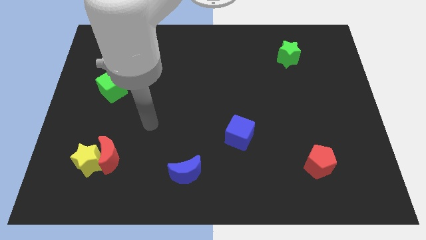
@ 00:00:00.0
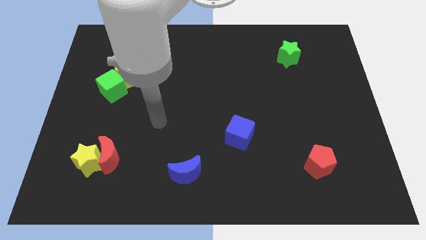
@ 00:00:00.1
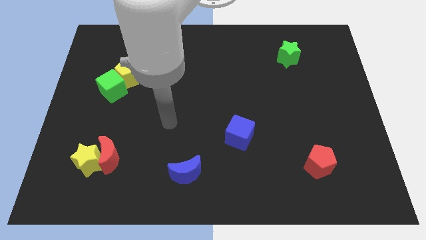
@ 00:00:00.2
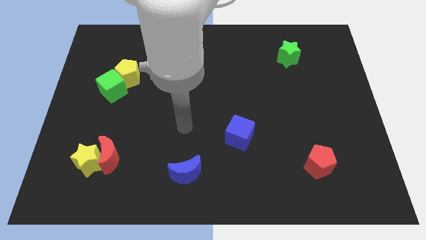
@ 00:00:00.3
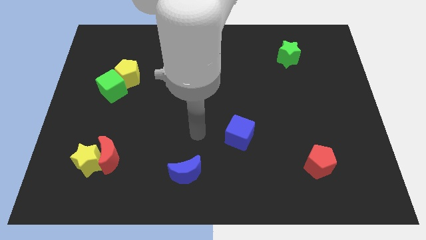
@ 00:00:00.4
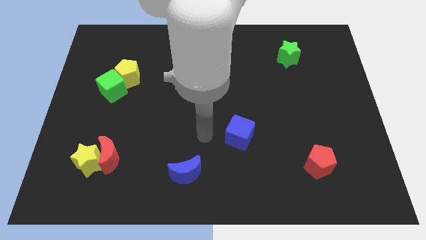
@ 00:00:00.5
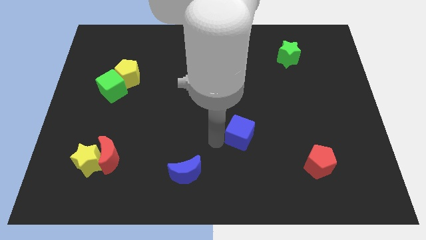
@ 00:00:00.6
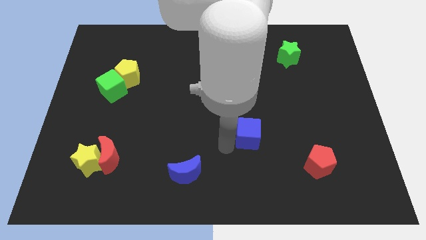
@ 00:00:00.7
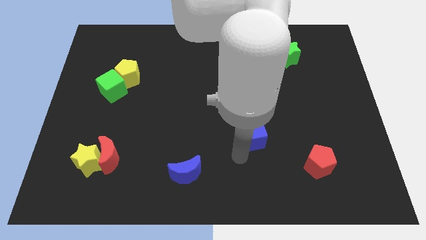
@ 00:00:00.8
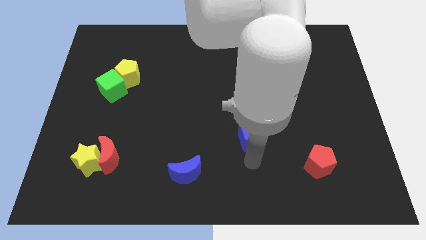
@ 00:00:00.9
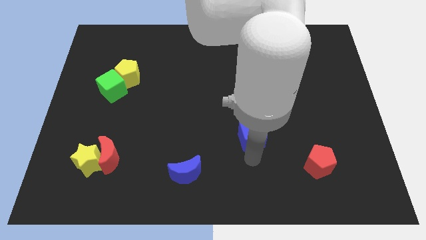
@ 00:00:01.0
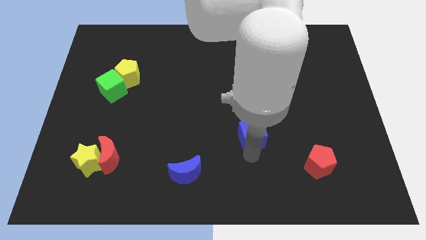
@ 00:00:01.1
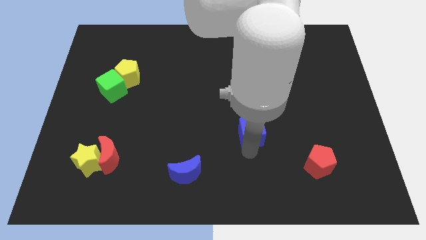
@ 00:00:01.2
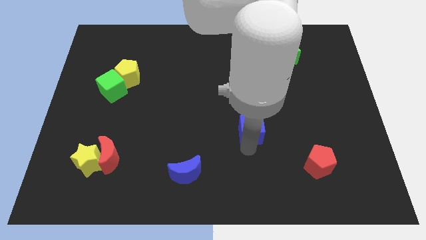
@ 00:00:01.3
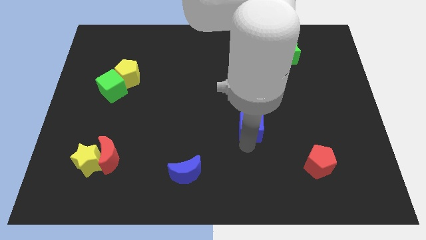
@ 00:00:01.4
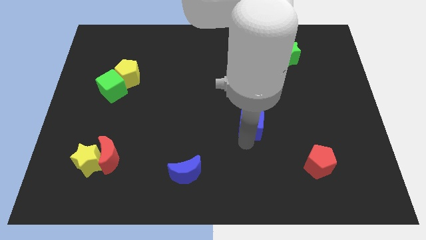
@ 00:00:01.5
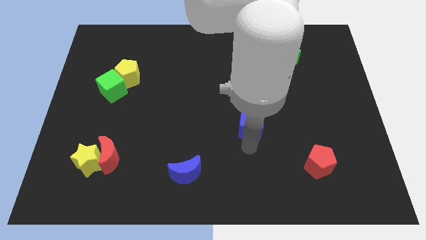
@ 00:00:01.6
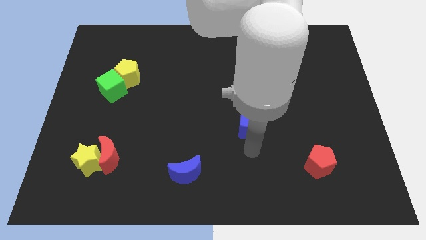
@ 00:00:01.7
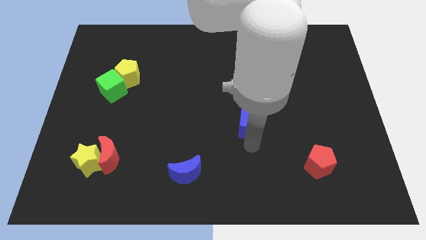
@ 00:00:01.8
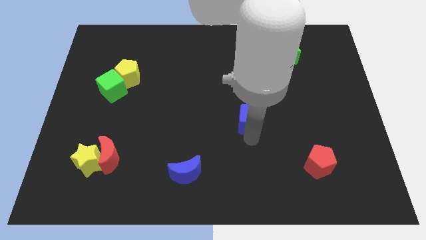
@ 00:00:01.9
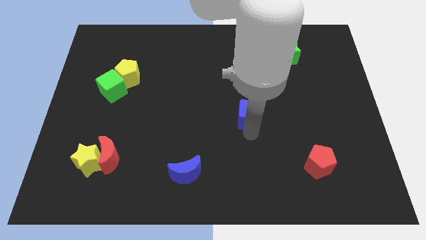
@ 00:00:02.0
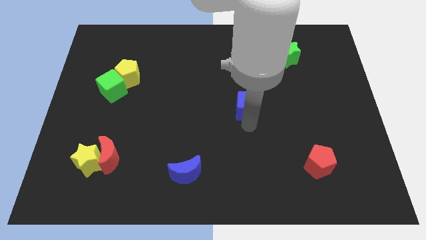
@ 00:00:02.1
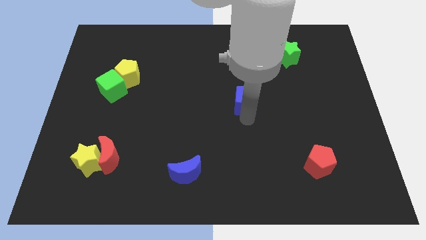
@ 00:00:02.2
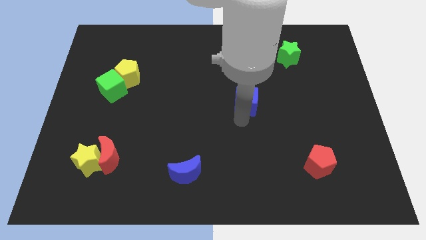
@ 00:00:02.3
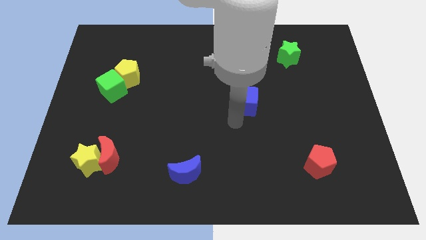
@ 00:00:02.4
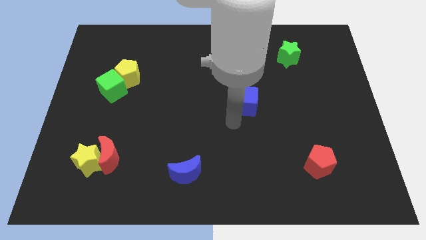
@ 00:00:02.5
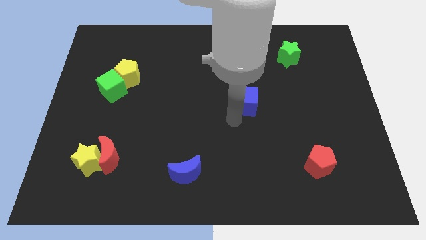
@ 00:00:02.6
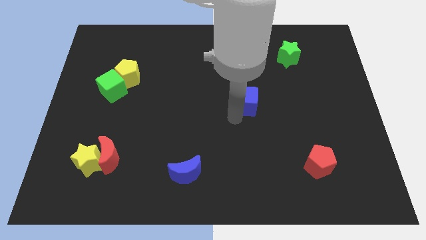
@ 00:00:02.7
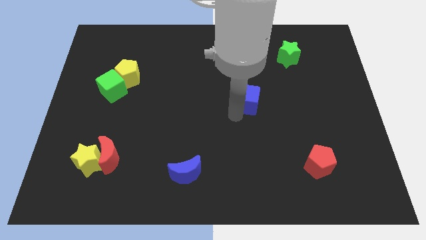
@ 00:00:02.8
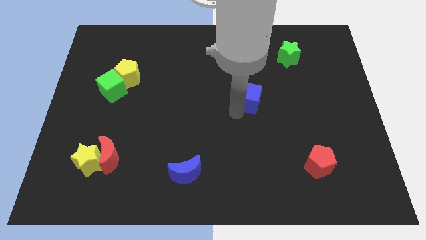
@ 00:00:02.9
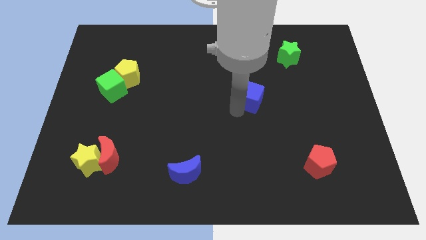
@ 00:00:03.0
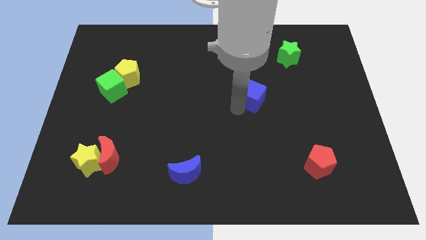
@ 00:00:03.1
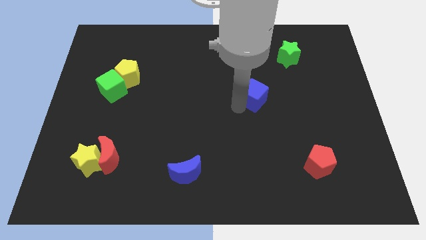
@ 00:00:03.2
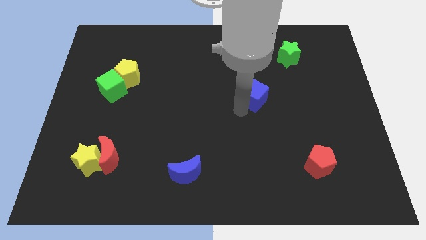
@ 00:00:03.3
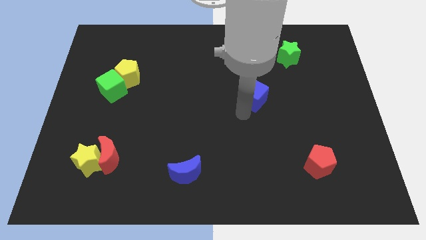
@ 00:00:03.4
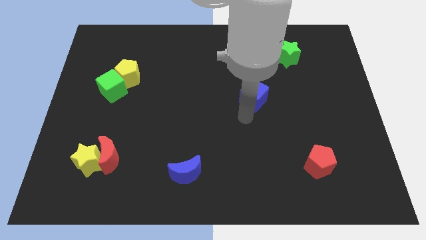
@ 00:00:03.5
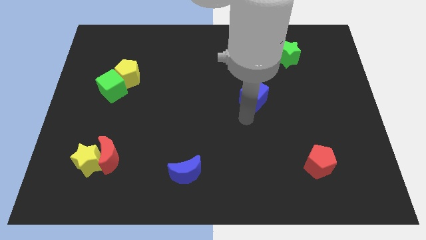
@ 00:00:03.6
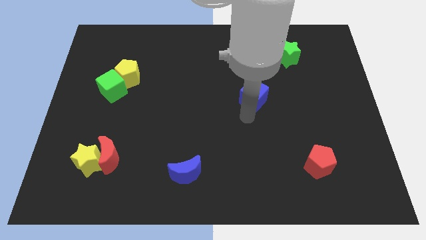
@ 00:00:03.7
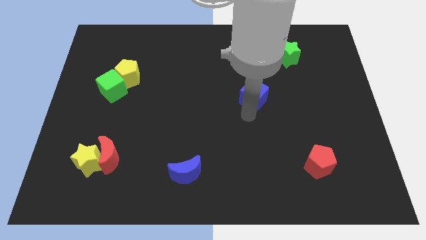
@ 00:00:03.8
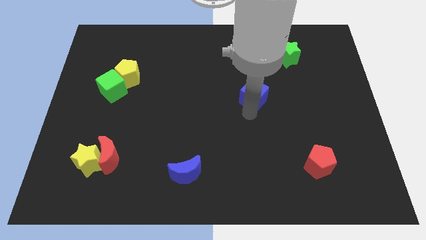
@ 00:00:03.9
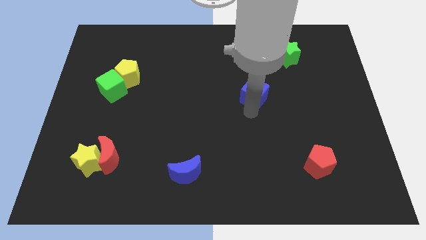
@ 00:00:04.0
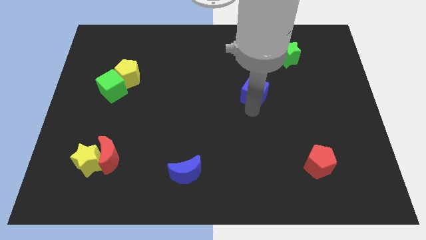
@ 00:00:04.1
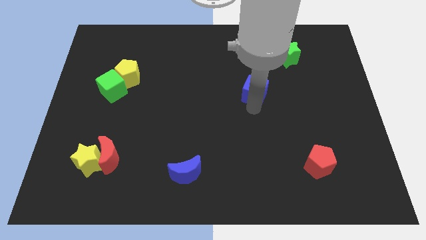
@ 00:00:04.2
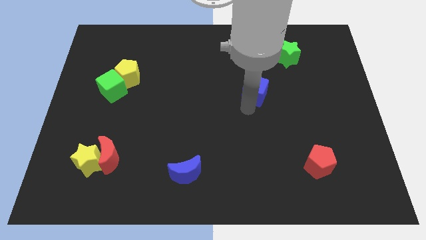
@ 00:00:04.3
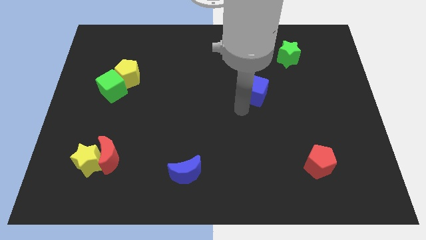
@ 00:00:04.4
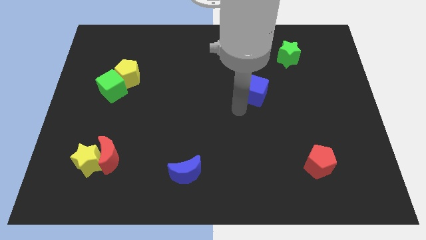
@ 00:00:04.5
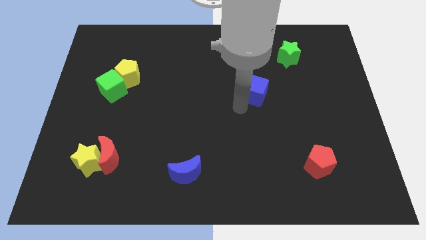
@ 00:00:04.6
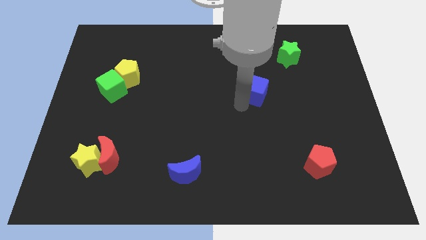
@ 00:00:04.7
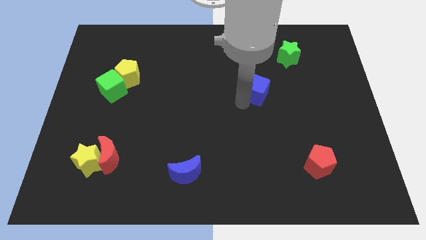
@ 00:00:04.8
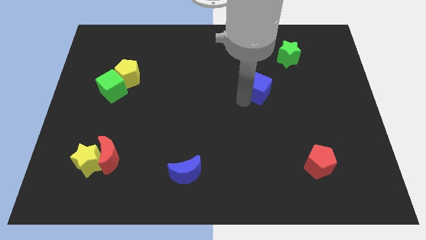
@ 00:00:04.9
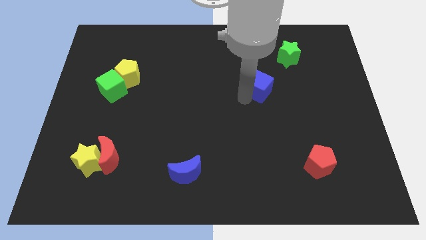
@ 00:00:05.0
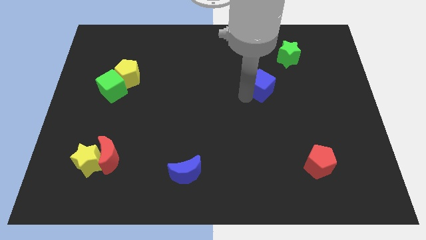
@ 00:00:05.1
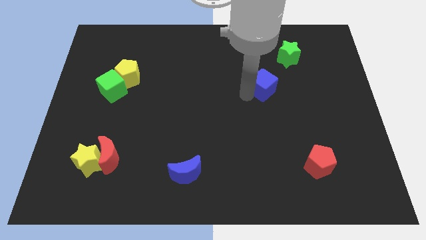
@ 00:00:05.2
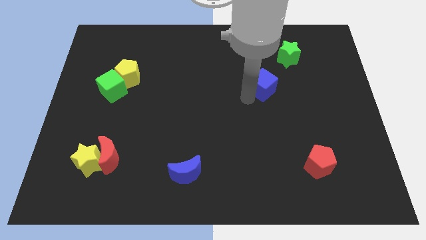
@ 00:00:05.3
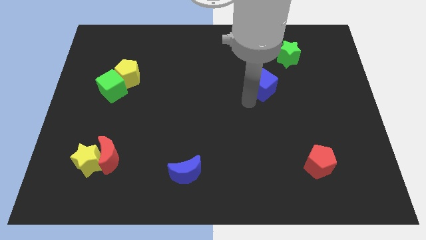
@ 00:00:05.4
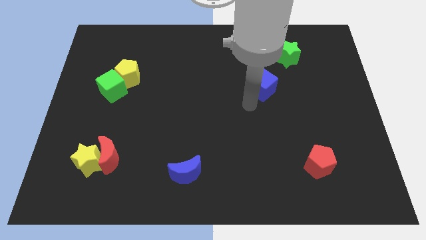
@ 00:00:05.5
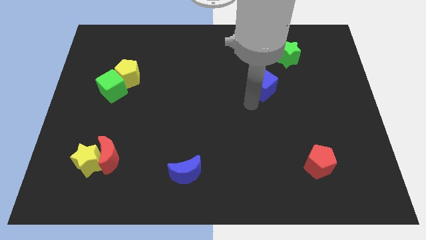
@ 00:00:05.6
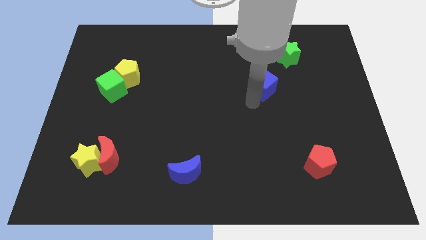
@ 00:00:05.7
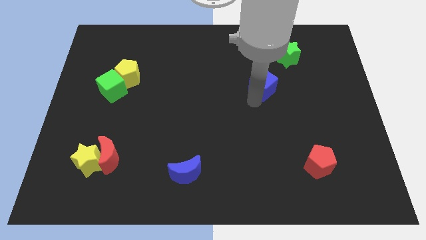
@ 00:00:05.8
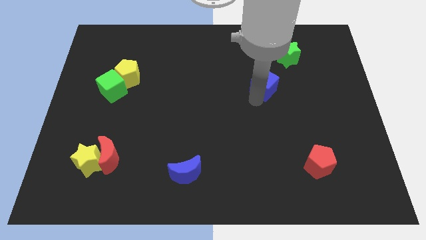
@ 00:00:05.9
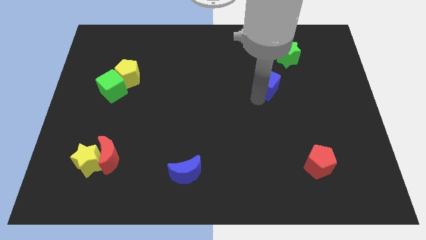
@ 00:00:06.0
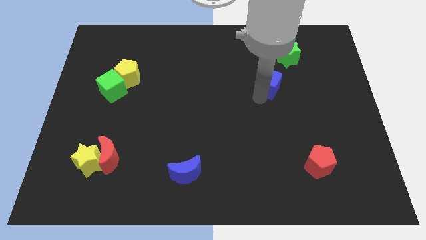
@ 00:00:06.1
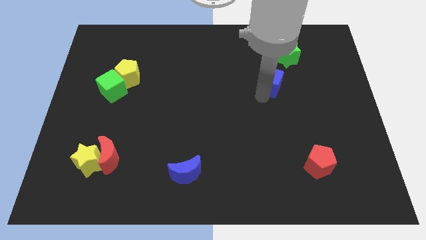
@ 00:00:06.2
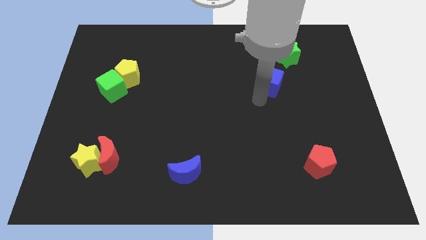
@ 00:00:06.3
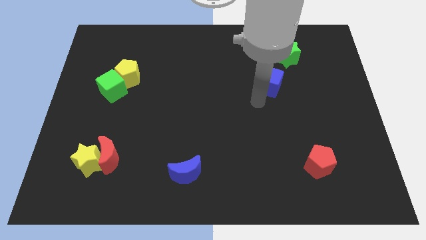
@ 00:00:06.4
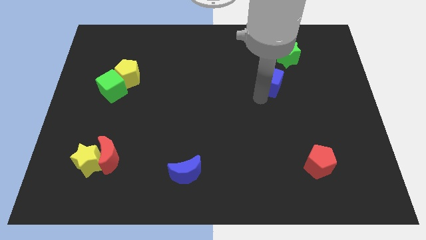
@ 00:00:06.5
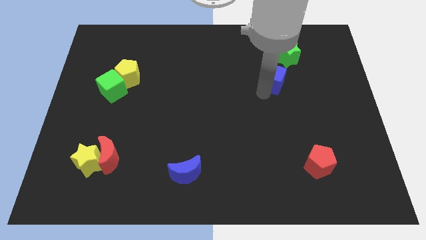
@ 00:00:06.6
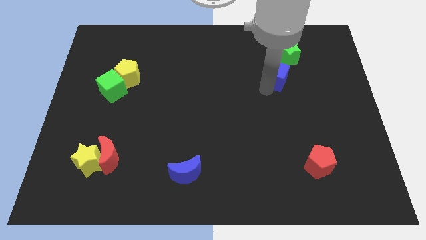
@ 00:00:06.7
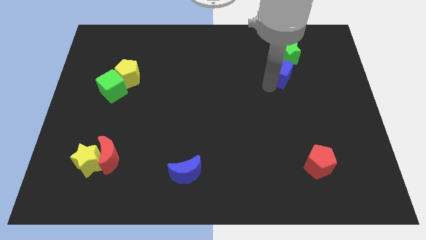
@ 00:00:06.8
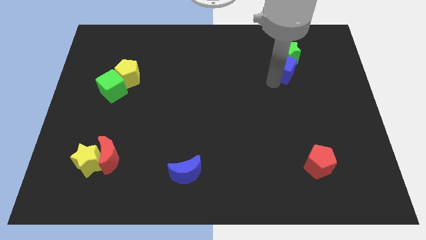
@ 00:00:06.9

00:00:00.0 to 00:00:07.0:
slide the blue cube to the green star
